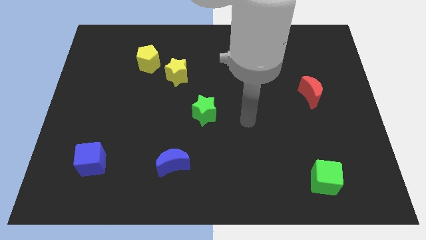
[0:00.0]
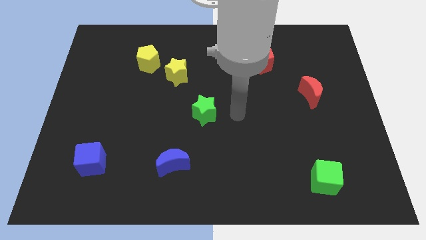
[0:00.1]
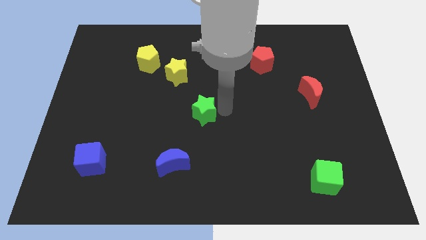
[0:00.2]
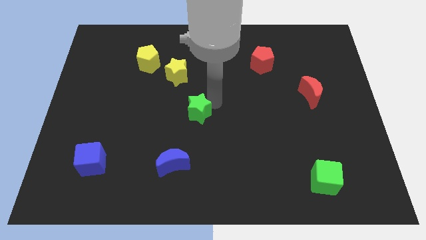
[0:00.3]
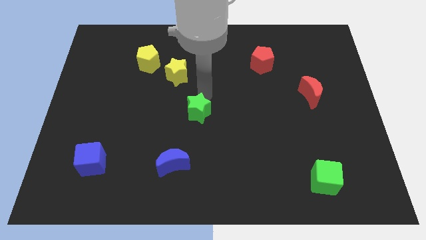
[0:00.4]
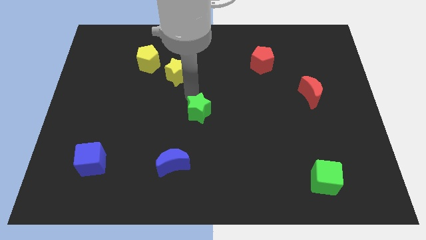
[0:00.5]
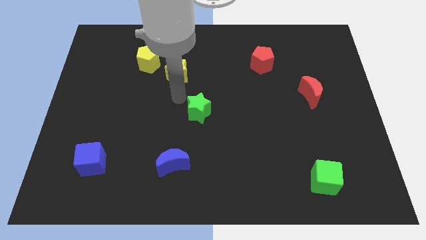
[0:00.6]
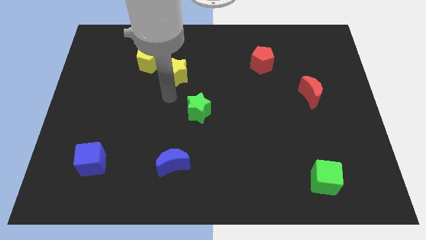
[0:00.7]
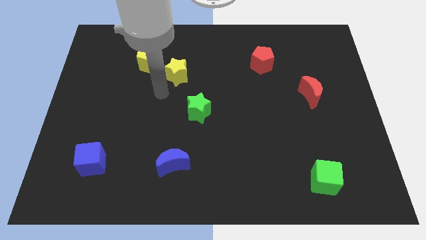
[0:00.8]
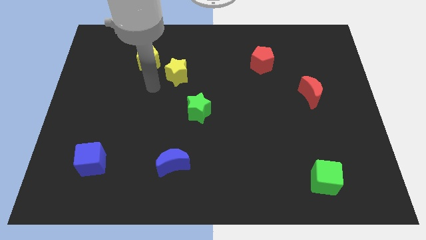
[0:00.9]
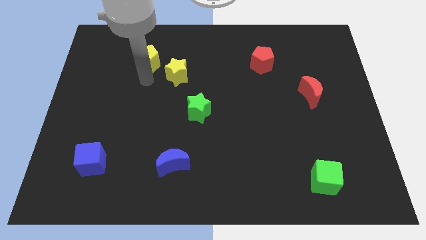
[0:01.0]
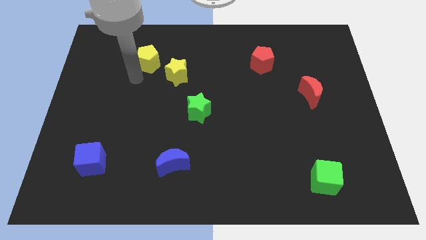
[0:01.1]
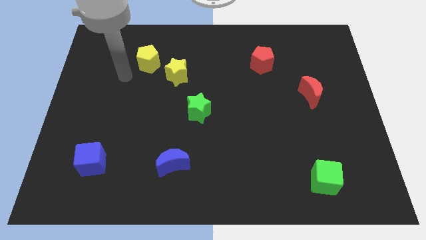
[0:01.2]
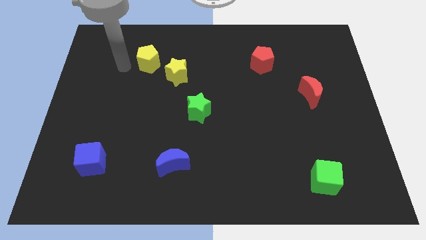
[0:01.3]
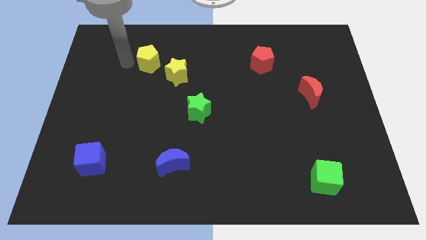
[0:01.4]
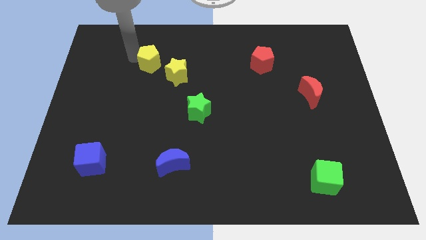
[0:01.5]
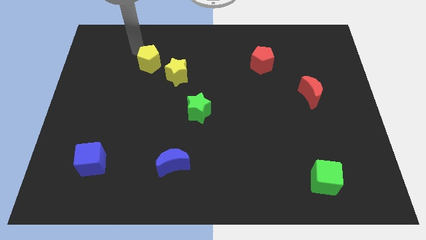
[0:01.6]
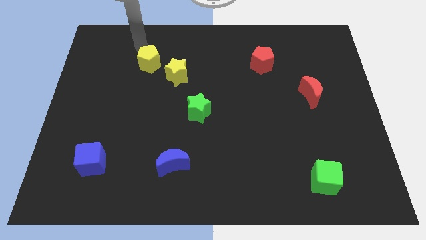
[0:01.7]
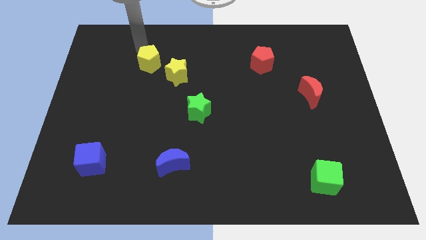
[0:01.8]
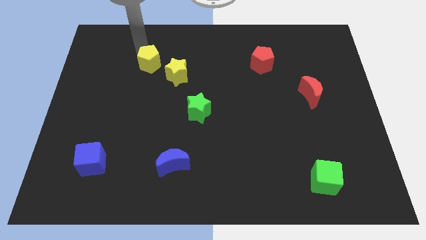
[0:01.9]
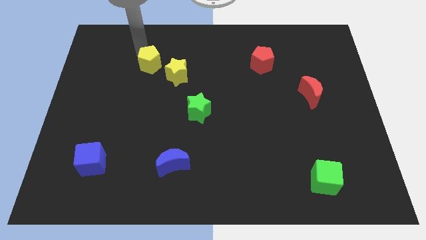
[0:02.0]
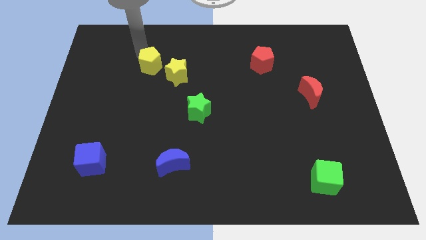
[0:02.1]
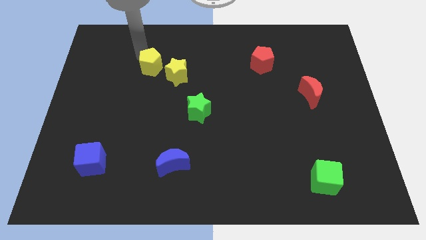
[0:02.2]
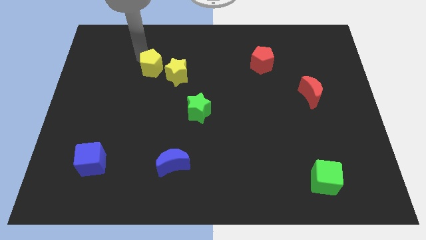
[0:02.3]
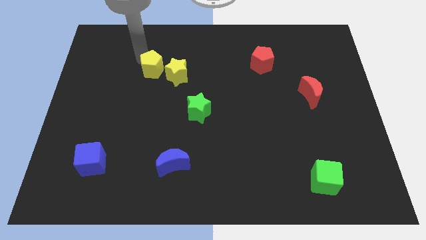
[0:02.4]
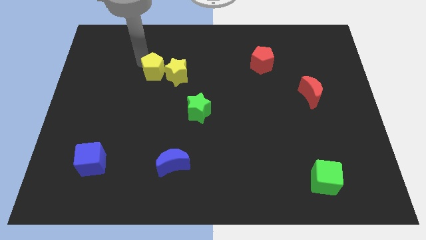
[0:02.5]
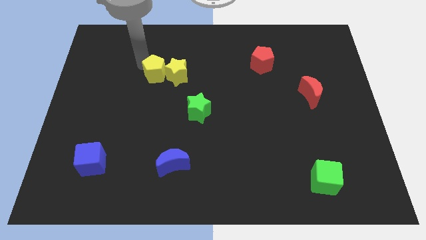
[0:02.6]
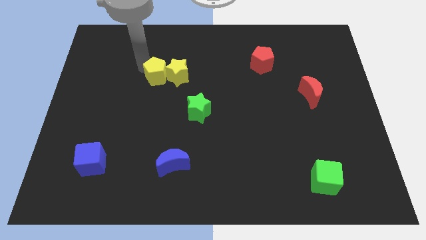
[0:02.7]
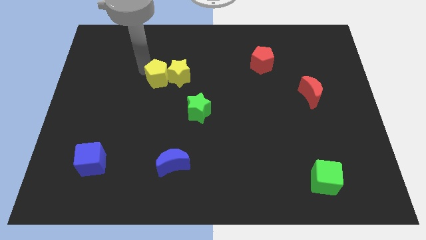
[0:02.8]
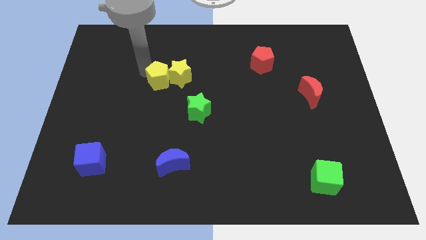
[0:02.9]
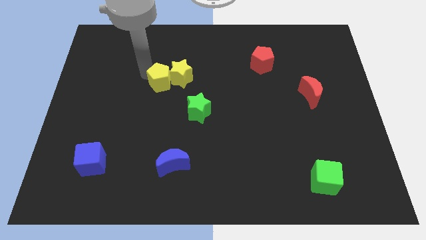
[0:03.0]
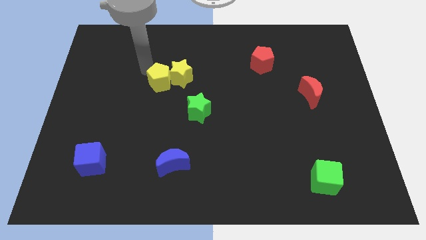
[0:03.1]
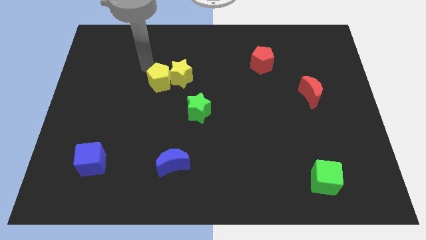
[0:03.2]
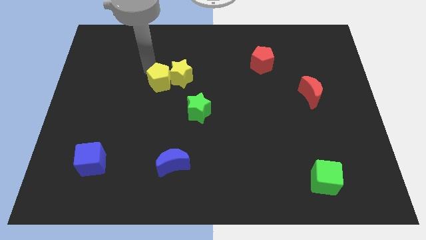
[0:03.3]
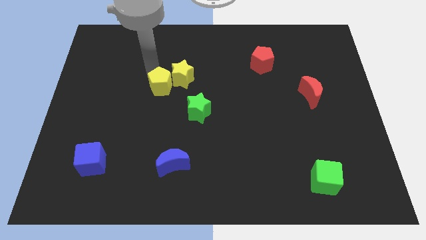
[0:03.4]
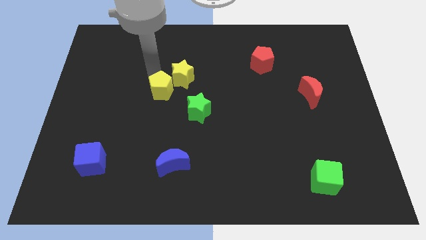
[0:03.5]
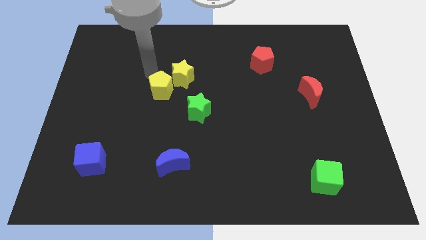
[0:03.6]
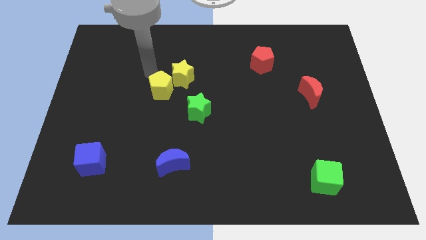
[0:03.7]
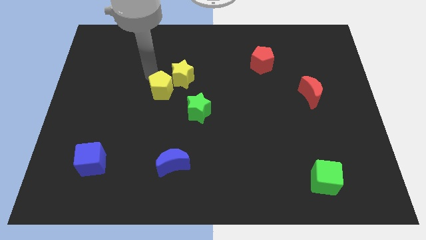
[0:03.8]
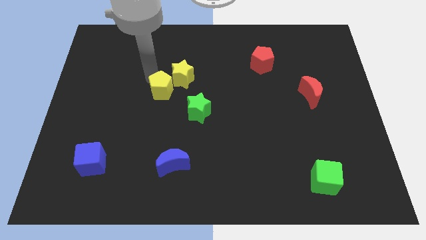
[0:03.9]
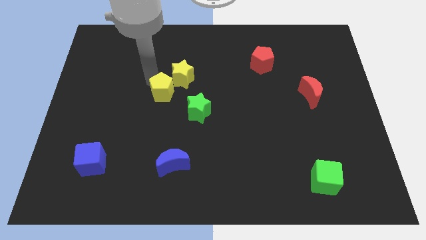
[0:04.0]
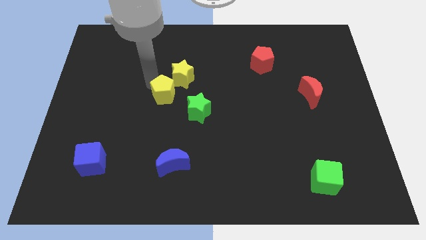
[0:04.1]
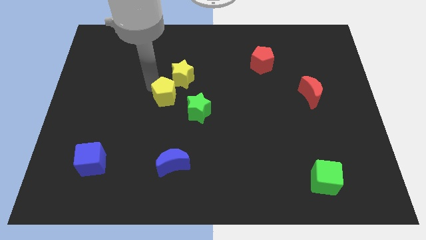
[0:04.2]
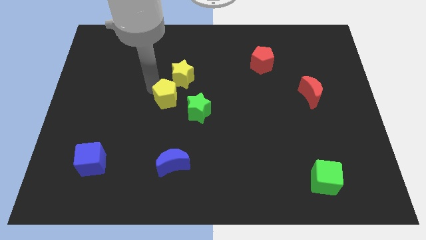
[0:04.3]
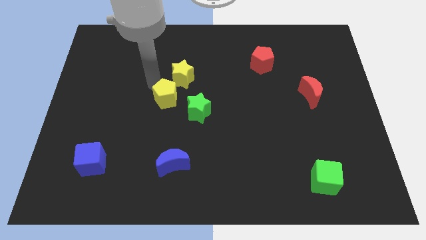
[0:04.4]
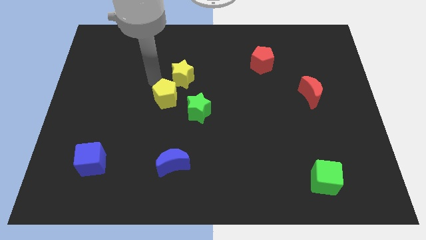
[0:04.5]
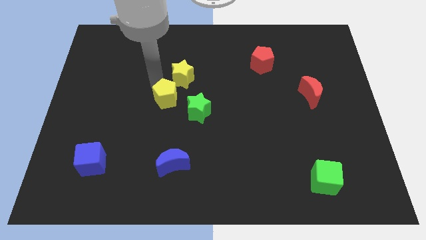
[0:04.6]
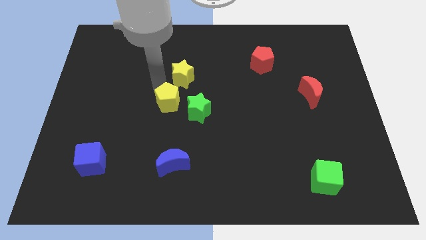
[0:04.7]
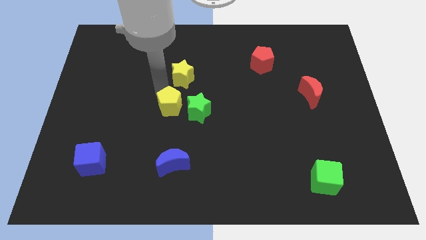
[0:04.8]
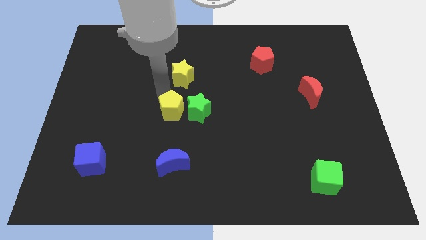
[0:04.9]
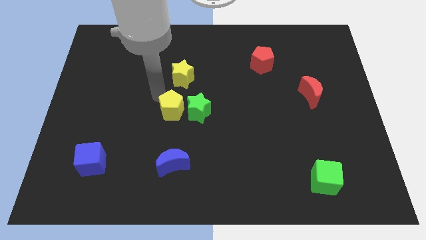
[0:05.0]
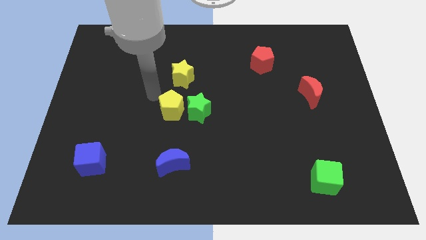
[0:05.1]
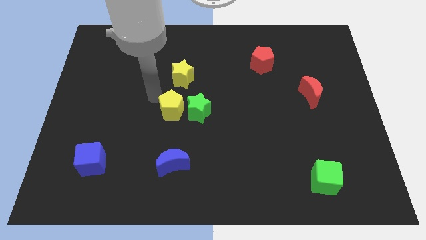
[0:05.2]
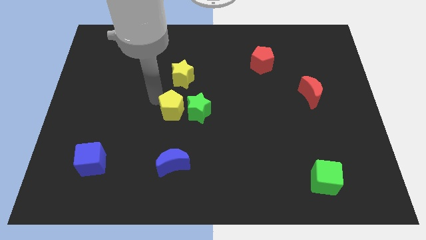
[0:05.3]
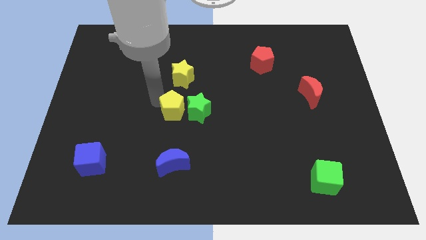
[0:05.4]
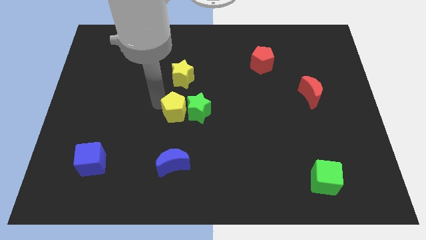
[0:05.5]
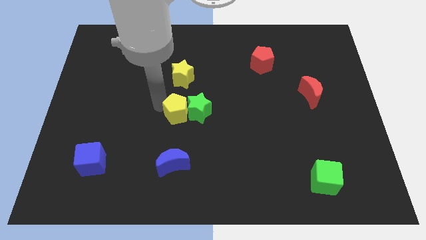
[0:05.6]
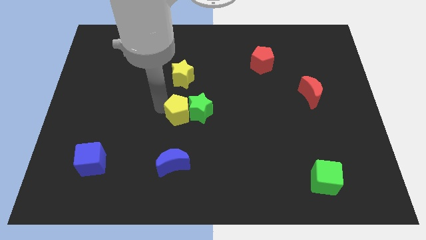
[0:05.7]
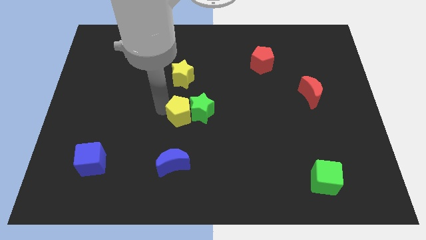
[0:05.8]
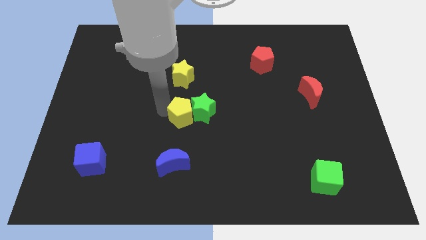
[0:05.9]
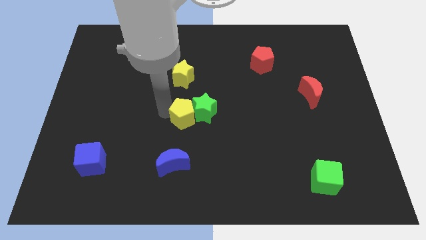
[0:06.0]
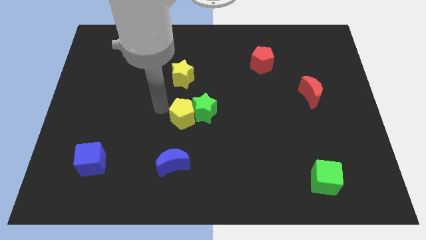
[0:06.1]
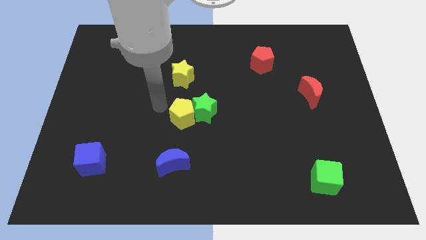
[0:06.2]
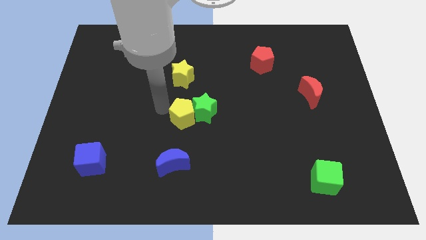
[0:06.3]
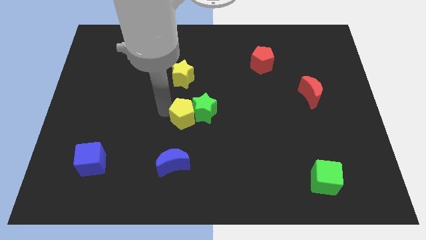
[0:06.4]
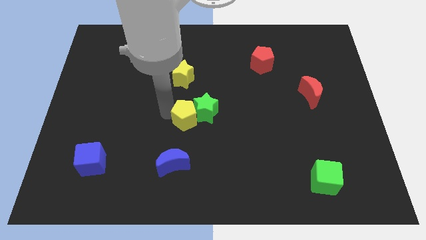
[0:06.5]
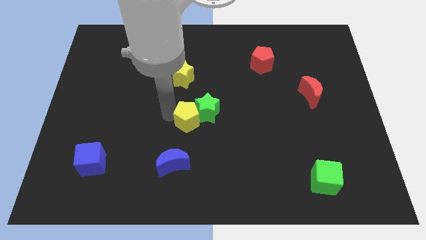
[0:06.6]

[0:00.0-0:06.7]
move the yellow pentagon down and to the right

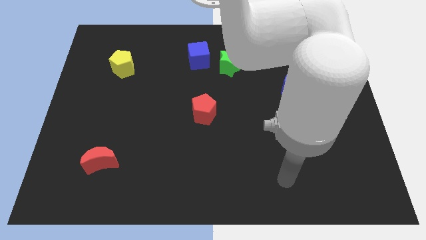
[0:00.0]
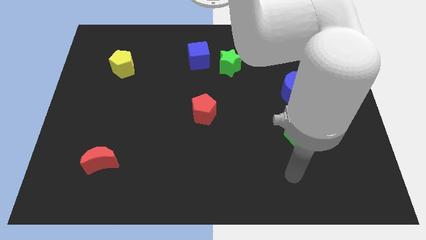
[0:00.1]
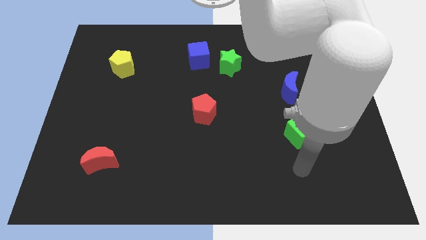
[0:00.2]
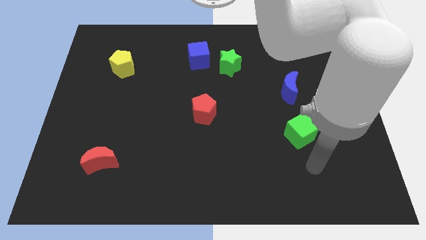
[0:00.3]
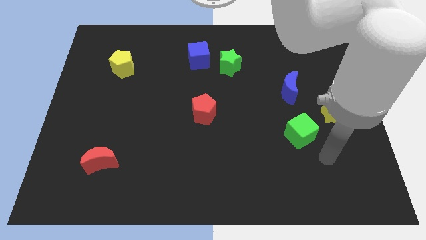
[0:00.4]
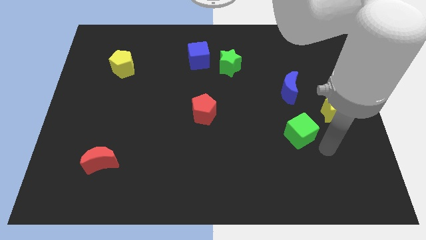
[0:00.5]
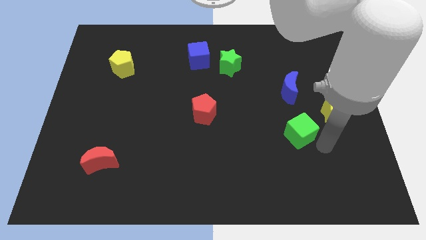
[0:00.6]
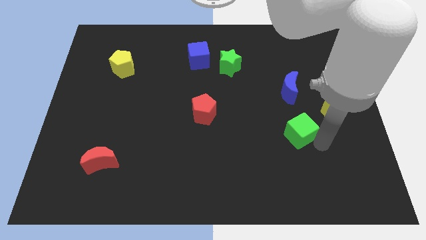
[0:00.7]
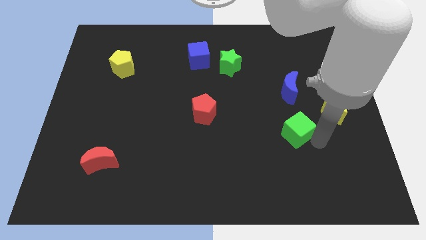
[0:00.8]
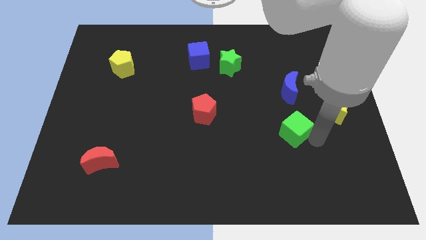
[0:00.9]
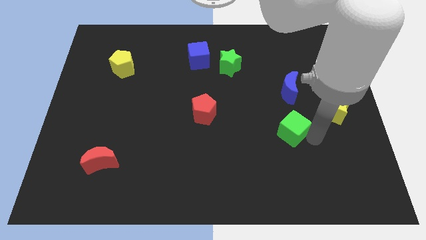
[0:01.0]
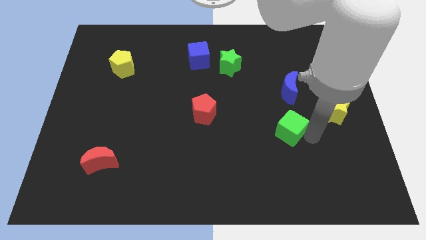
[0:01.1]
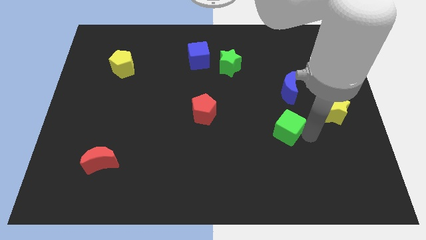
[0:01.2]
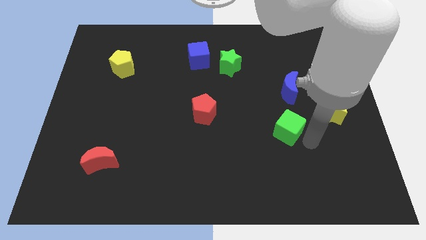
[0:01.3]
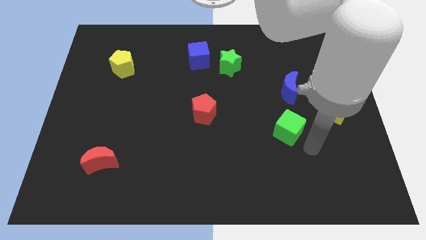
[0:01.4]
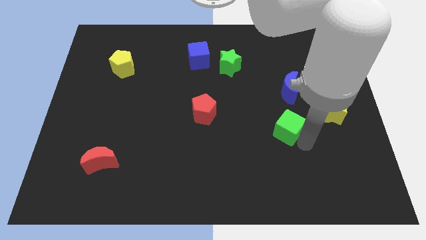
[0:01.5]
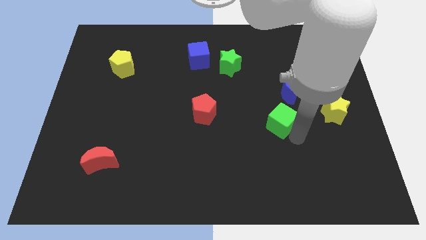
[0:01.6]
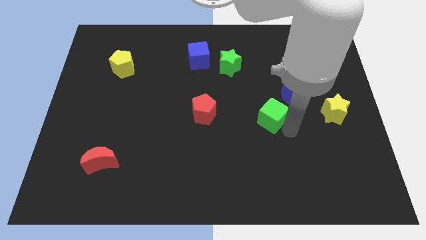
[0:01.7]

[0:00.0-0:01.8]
slightly slide the green cube up and then to the left
